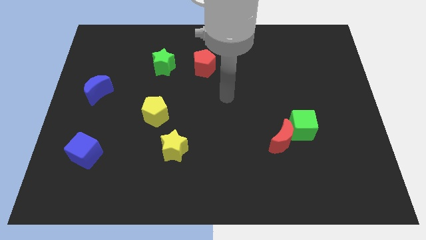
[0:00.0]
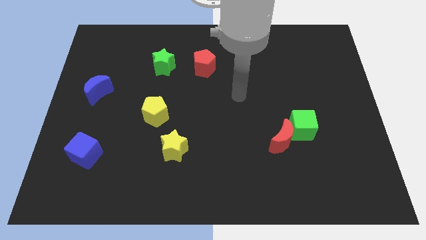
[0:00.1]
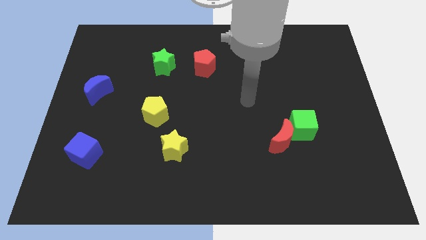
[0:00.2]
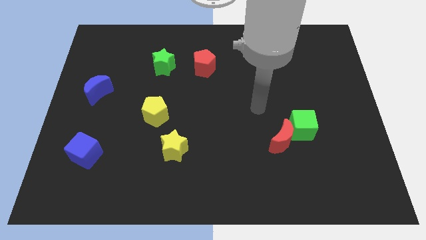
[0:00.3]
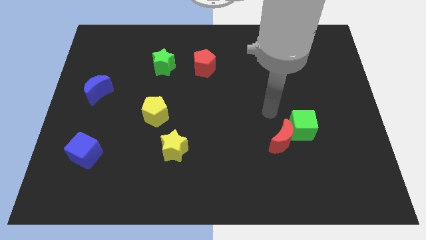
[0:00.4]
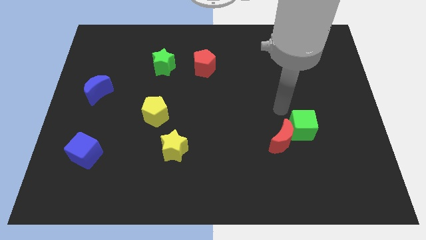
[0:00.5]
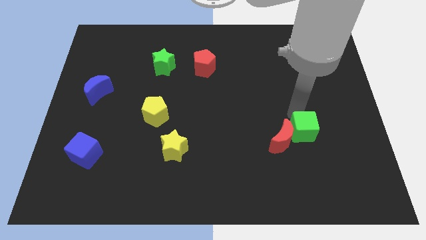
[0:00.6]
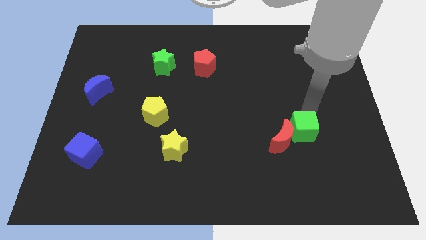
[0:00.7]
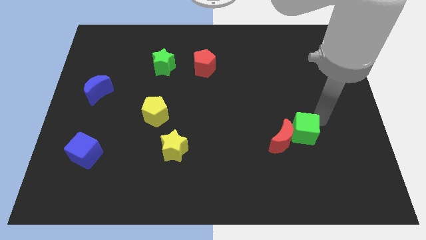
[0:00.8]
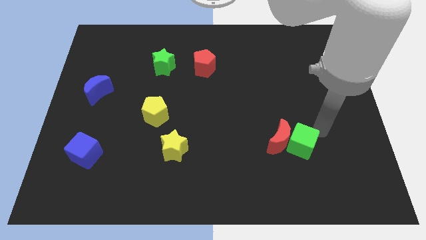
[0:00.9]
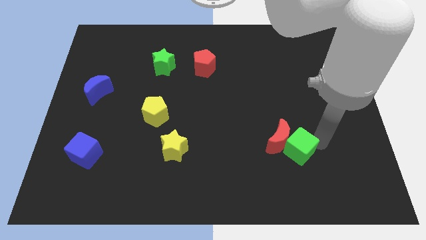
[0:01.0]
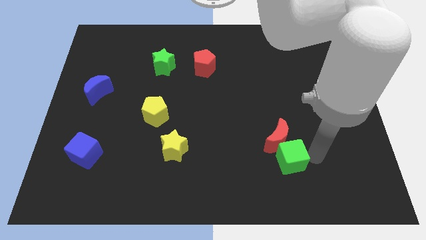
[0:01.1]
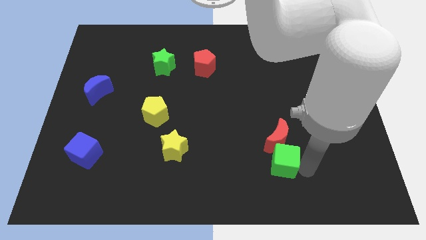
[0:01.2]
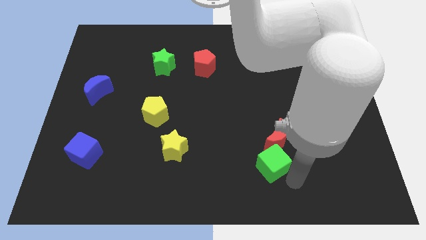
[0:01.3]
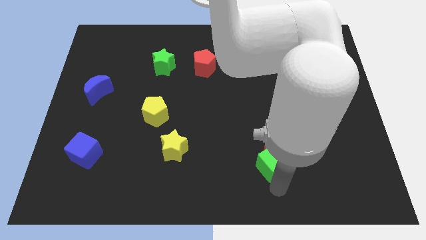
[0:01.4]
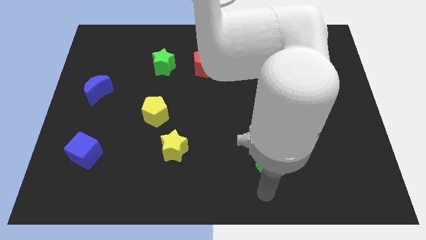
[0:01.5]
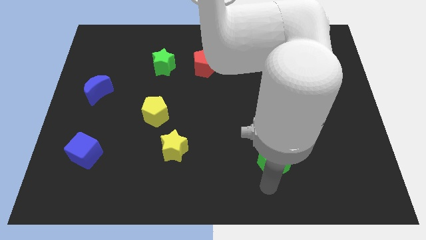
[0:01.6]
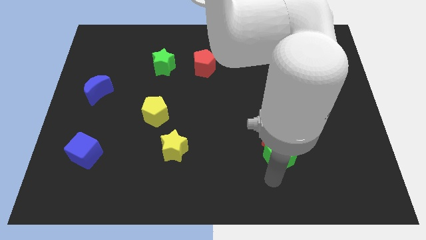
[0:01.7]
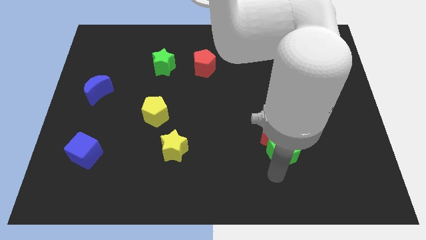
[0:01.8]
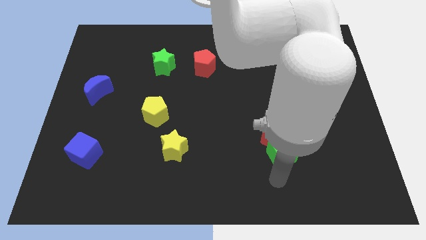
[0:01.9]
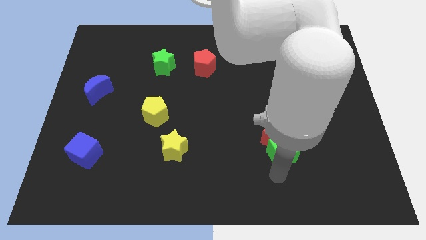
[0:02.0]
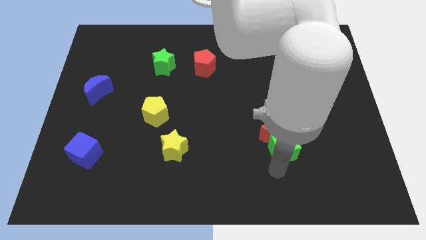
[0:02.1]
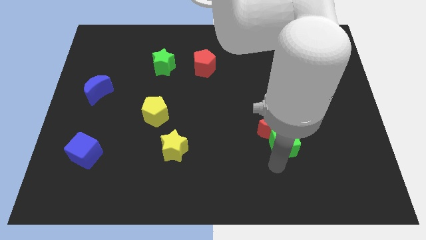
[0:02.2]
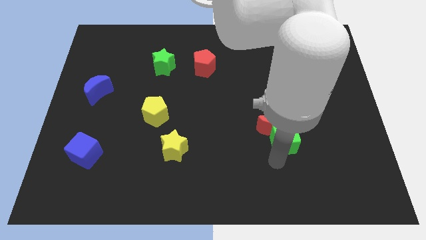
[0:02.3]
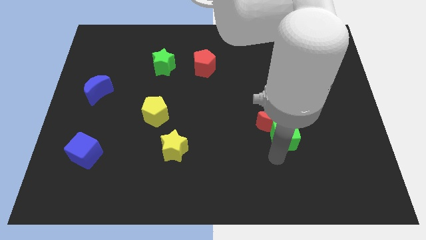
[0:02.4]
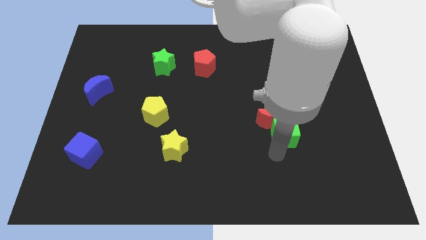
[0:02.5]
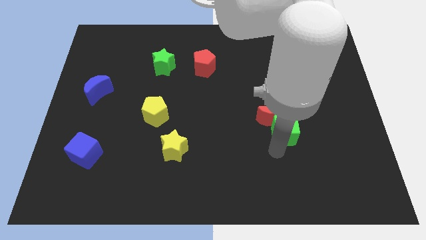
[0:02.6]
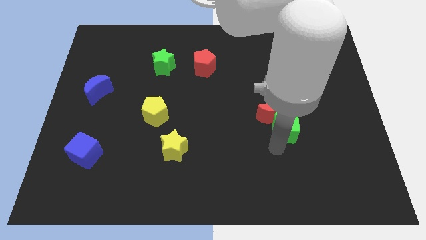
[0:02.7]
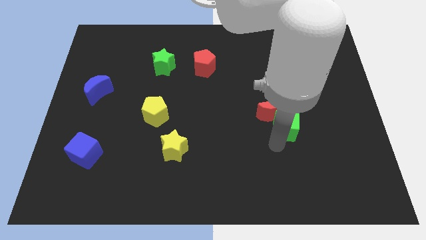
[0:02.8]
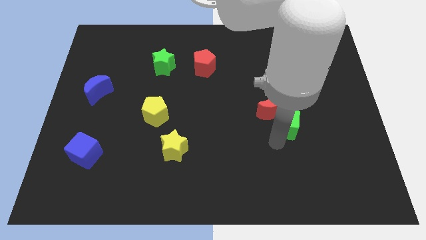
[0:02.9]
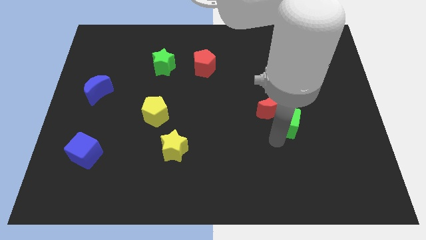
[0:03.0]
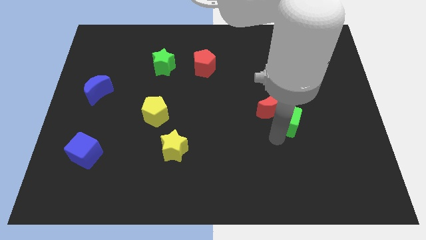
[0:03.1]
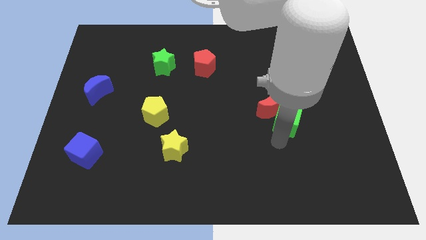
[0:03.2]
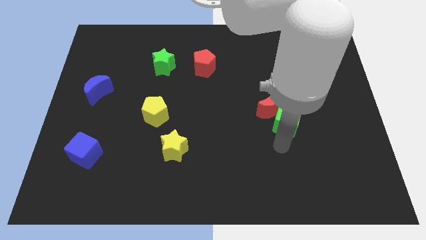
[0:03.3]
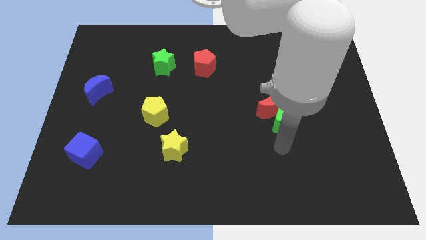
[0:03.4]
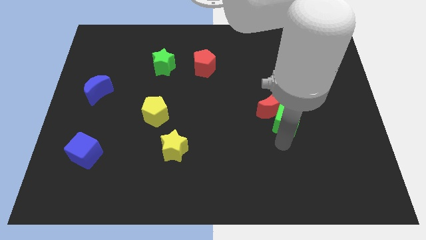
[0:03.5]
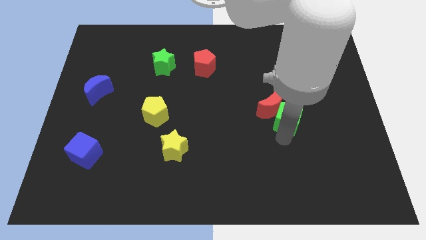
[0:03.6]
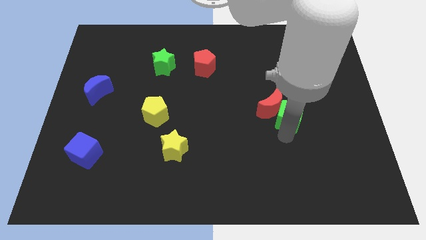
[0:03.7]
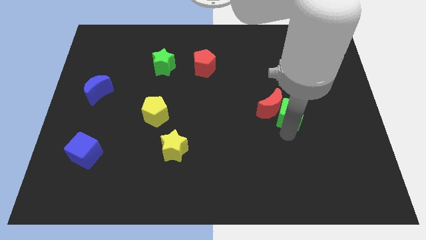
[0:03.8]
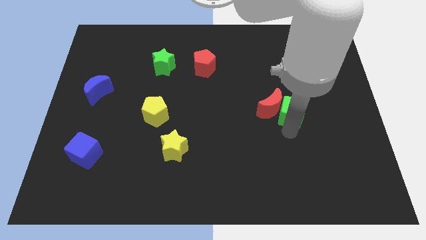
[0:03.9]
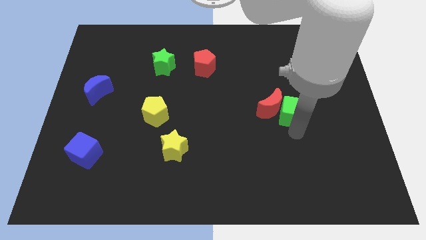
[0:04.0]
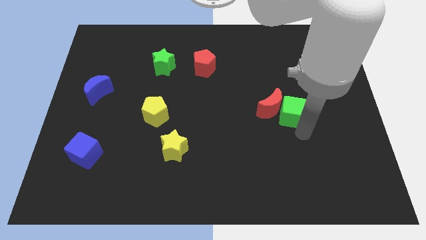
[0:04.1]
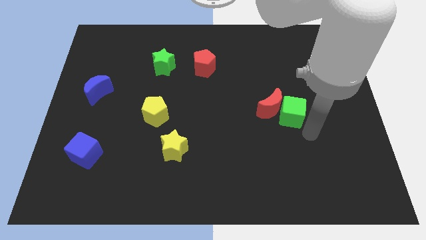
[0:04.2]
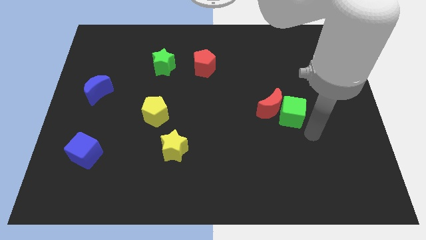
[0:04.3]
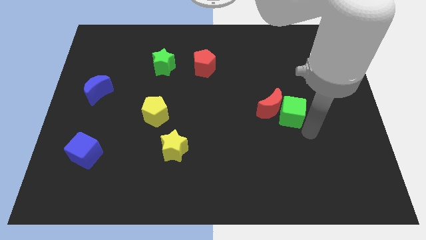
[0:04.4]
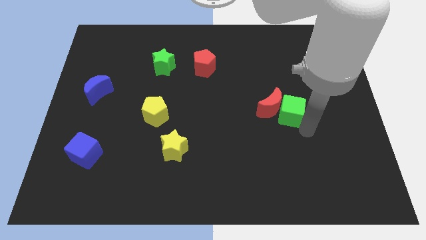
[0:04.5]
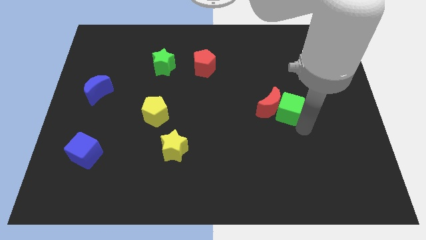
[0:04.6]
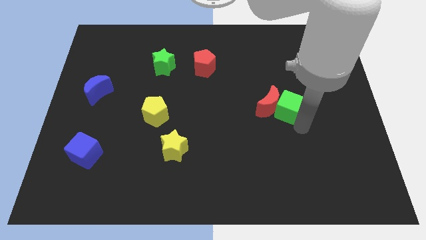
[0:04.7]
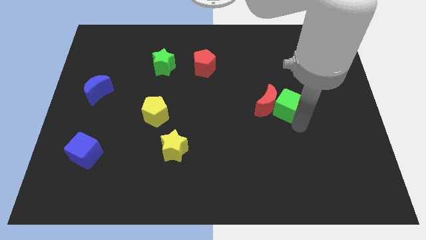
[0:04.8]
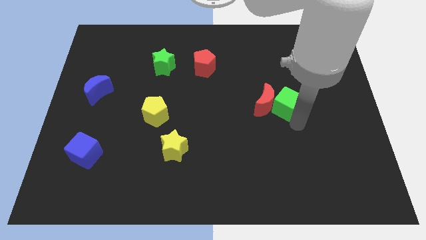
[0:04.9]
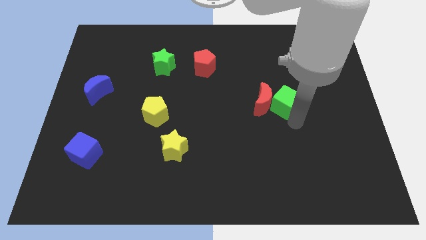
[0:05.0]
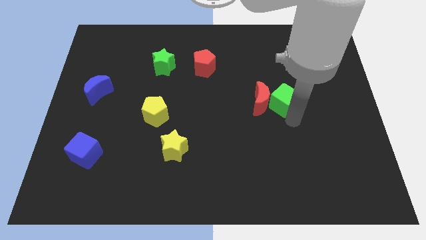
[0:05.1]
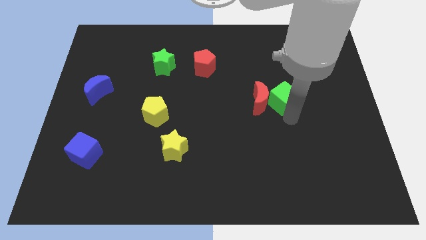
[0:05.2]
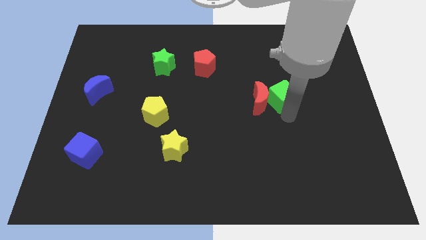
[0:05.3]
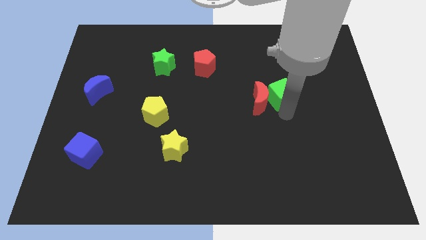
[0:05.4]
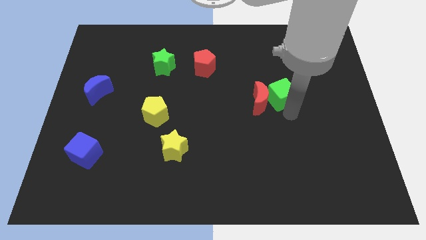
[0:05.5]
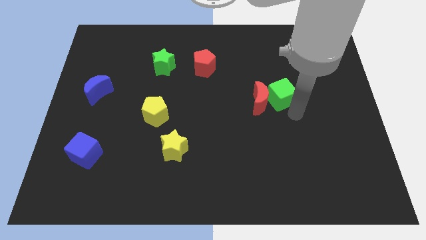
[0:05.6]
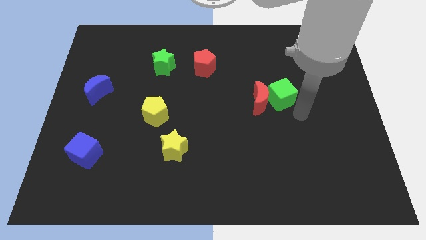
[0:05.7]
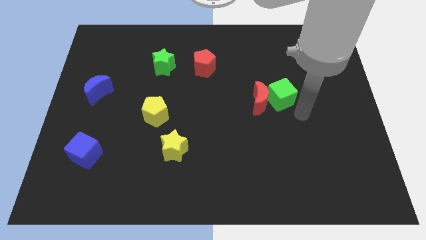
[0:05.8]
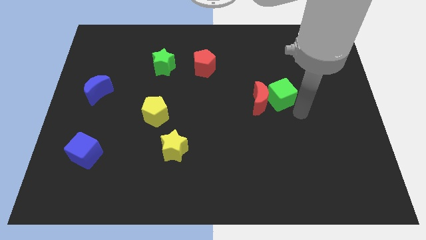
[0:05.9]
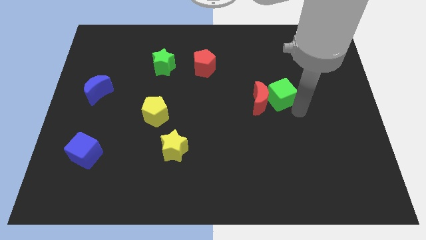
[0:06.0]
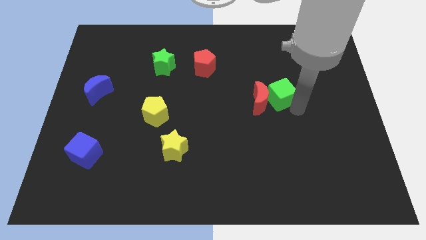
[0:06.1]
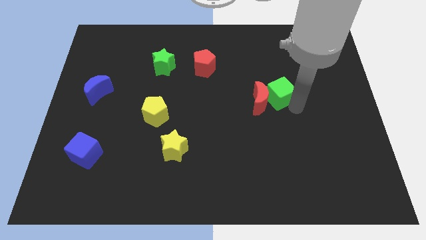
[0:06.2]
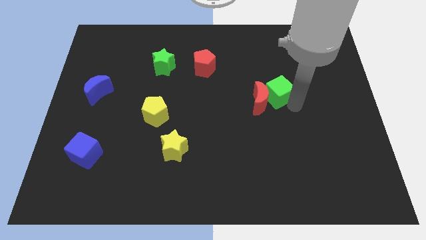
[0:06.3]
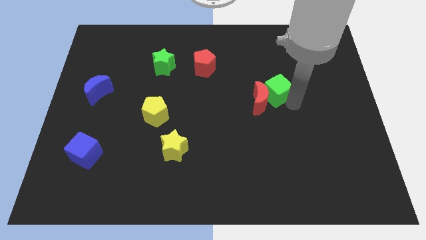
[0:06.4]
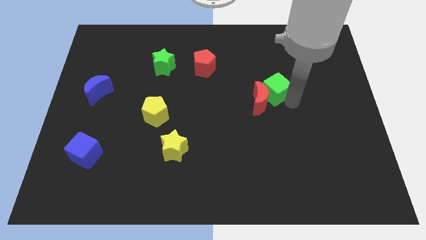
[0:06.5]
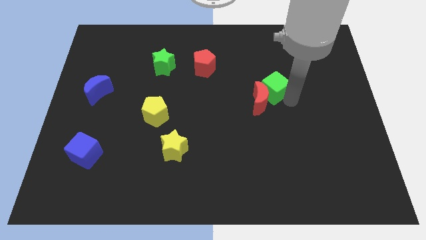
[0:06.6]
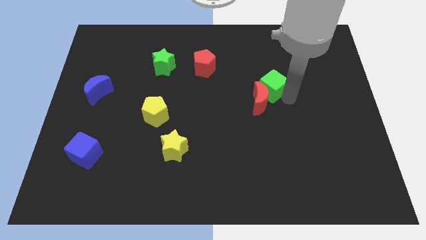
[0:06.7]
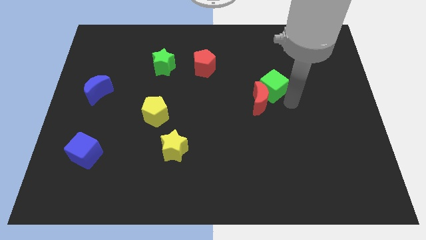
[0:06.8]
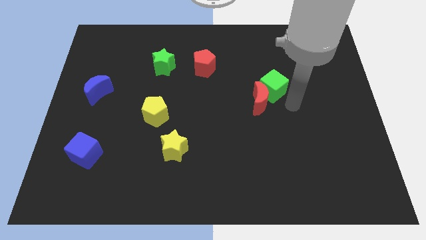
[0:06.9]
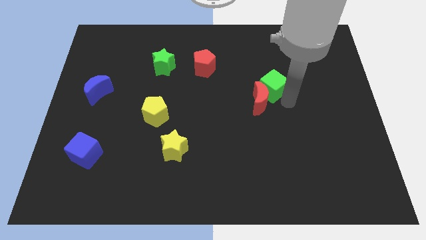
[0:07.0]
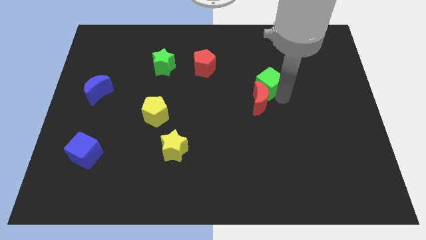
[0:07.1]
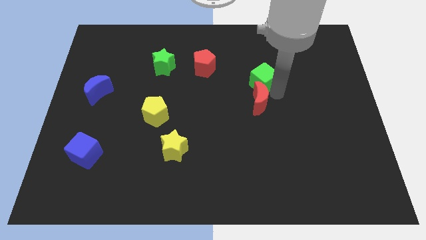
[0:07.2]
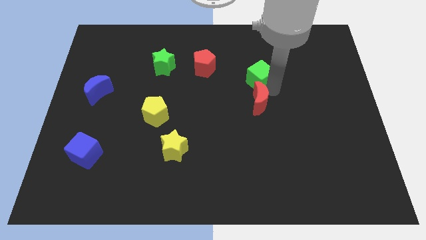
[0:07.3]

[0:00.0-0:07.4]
move the green cube to the right of the red pentagon

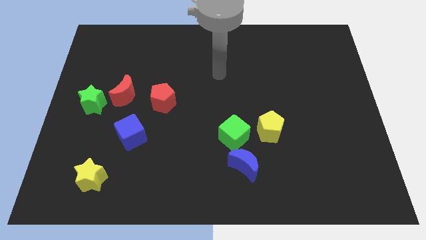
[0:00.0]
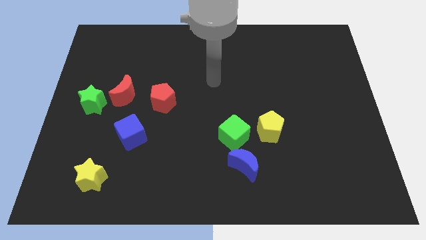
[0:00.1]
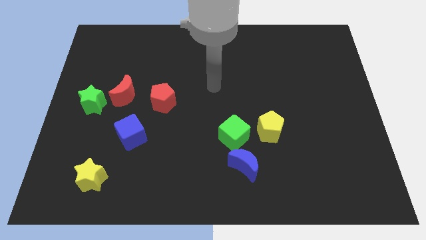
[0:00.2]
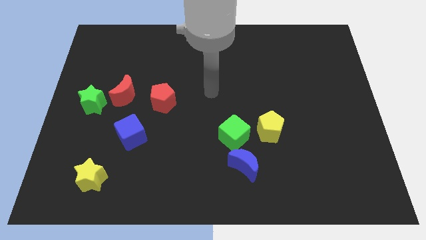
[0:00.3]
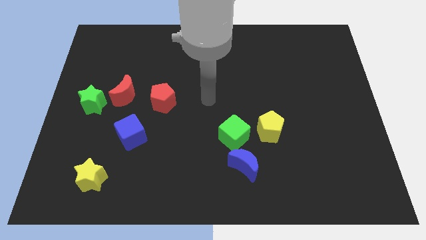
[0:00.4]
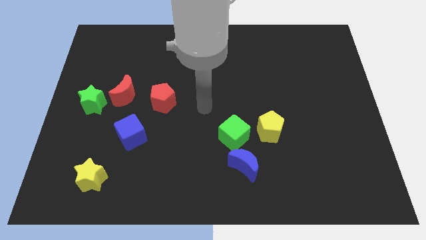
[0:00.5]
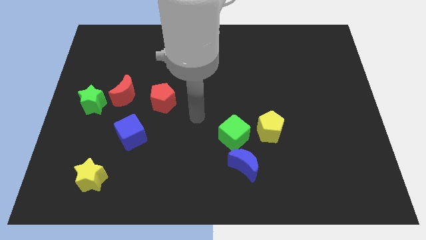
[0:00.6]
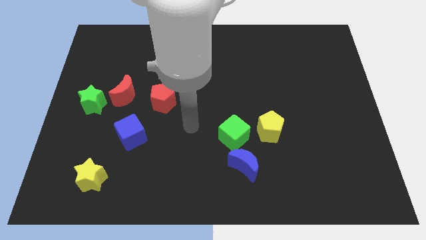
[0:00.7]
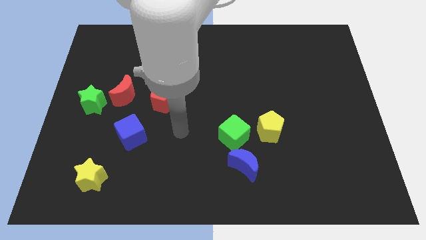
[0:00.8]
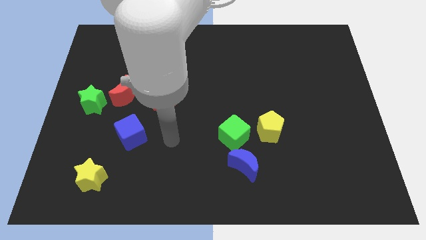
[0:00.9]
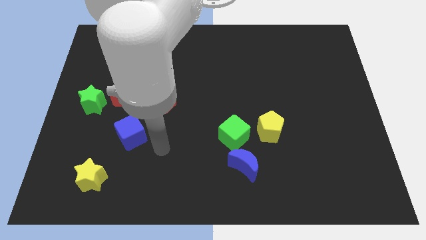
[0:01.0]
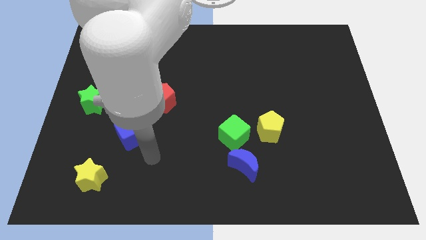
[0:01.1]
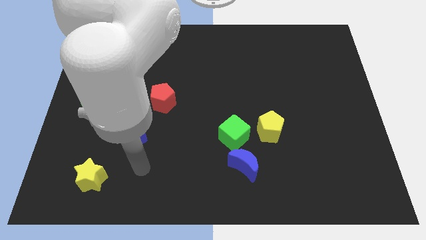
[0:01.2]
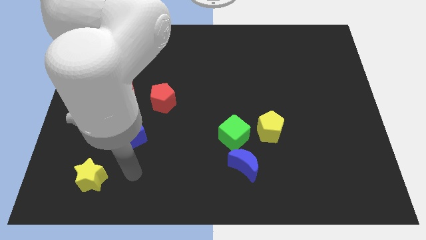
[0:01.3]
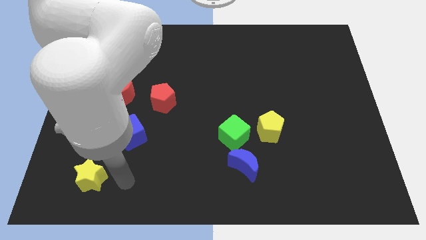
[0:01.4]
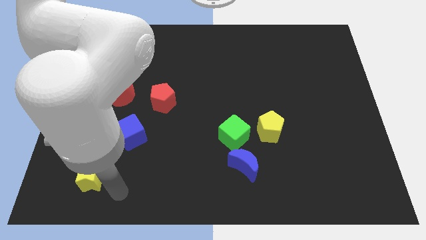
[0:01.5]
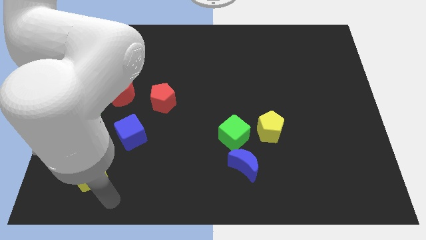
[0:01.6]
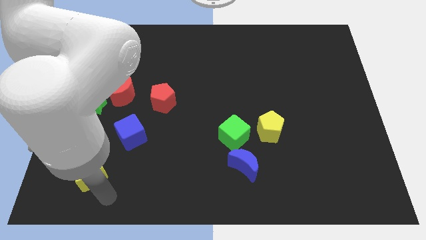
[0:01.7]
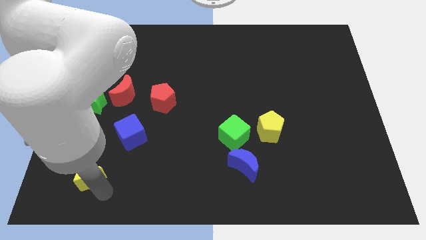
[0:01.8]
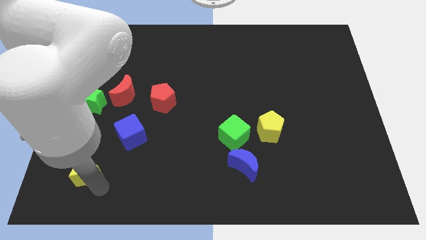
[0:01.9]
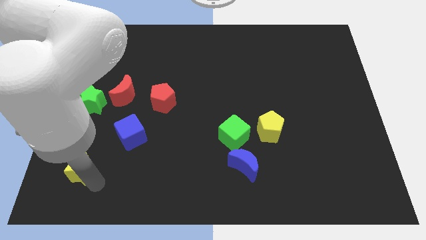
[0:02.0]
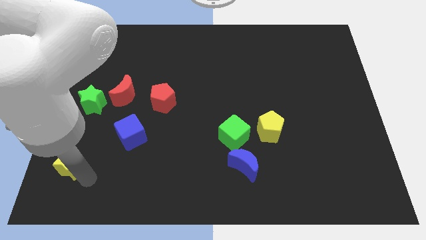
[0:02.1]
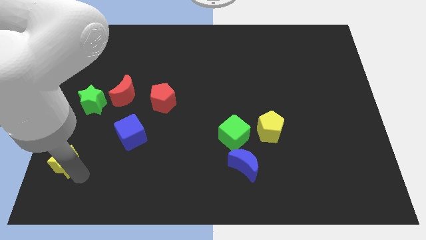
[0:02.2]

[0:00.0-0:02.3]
push the yellow star to the bottom of the green star
